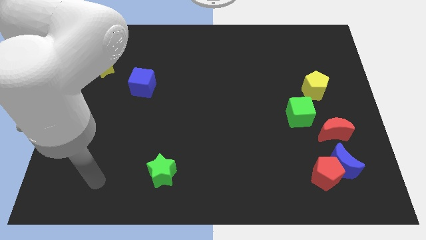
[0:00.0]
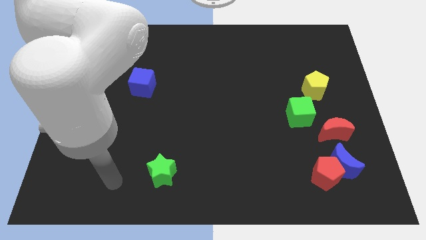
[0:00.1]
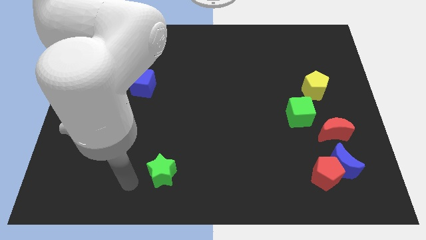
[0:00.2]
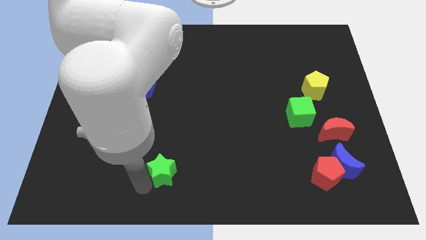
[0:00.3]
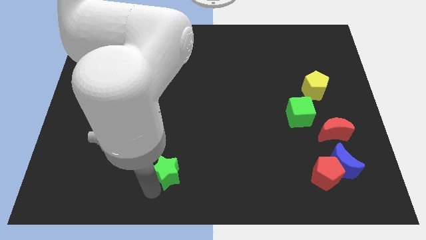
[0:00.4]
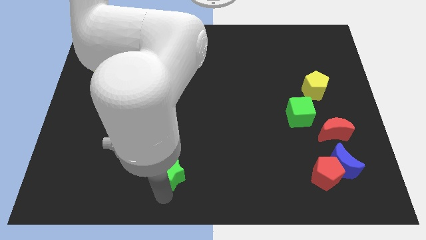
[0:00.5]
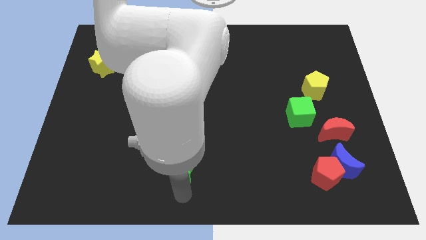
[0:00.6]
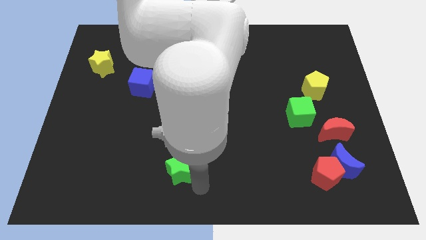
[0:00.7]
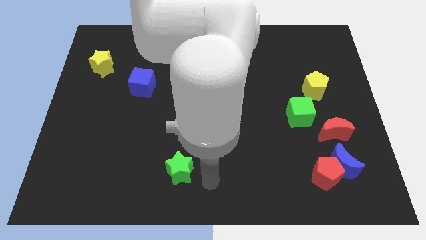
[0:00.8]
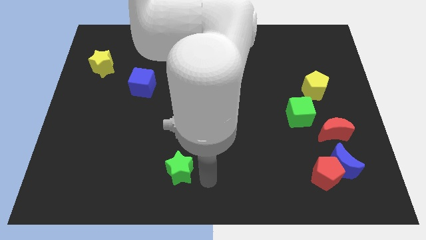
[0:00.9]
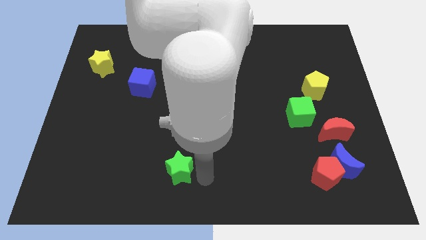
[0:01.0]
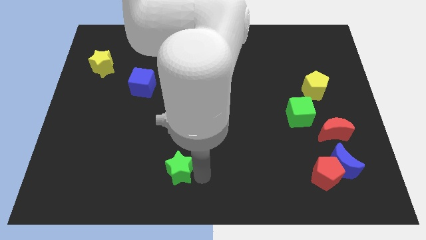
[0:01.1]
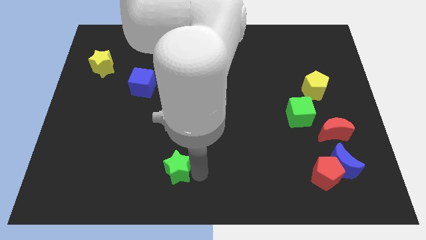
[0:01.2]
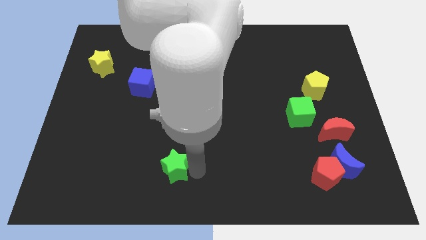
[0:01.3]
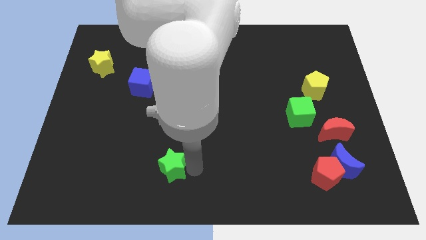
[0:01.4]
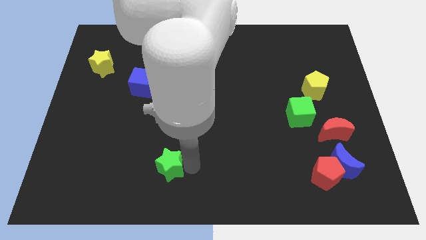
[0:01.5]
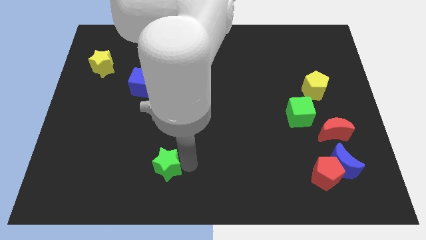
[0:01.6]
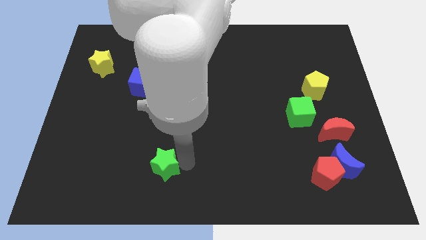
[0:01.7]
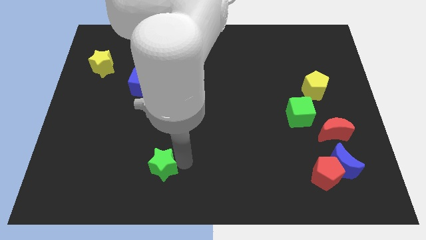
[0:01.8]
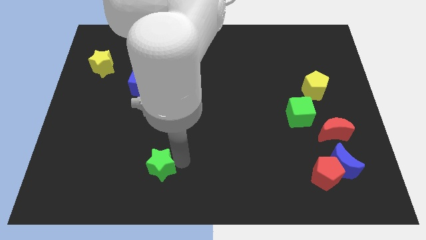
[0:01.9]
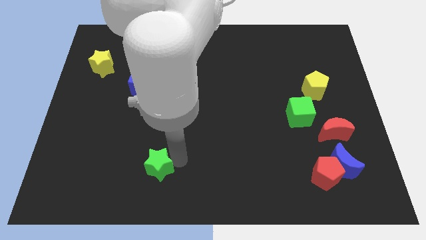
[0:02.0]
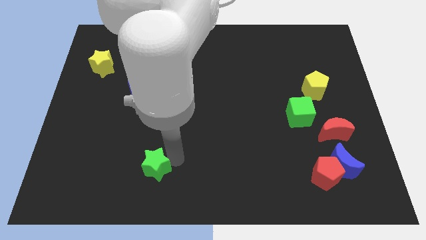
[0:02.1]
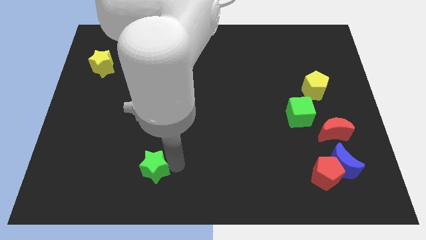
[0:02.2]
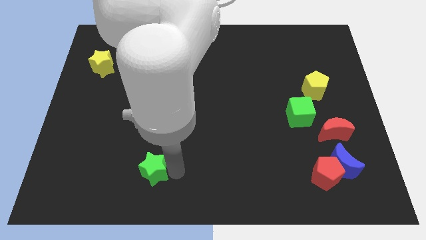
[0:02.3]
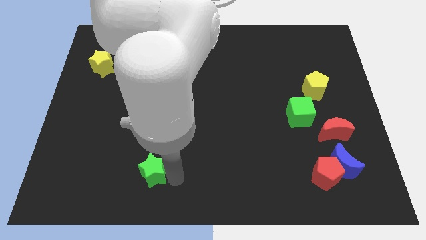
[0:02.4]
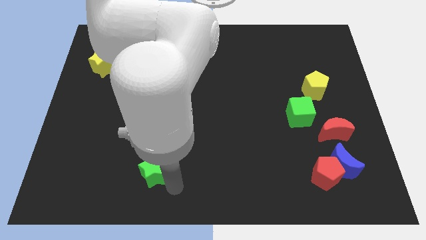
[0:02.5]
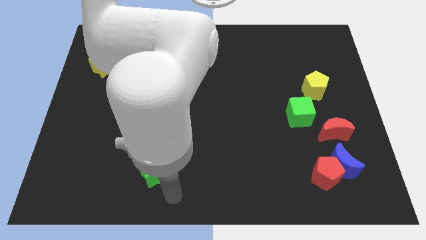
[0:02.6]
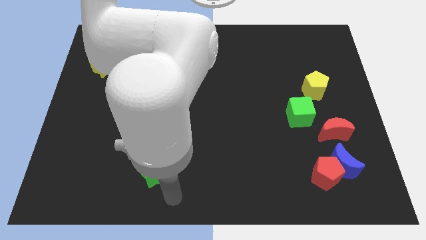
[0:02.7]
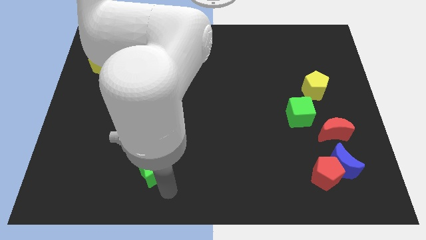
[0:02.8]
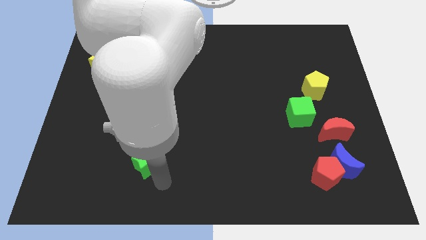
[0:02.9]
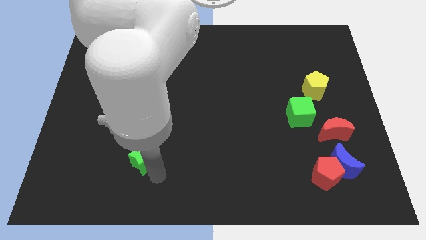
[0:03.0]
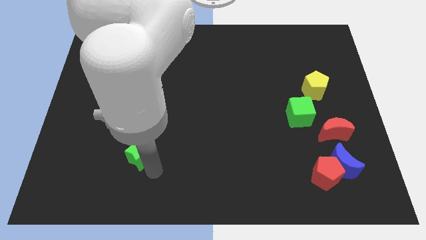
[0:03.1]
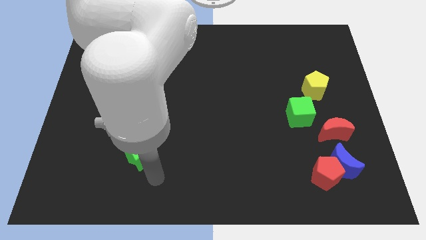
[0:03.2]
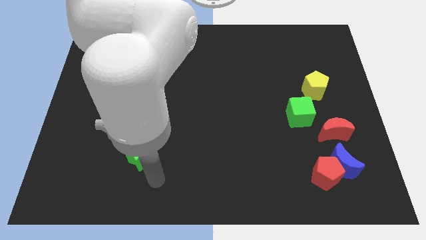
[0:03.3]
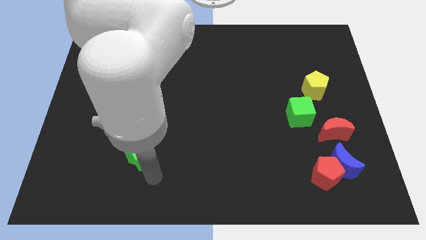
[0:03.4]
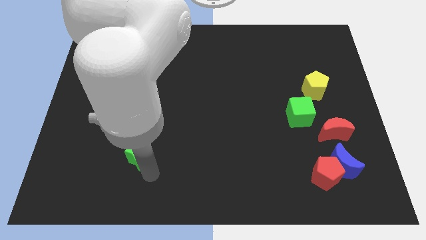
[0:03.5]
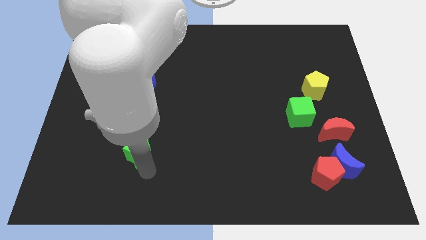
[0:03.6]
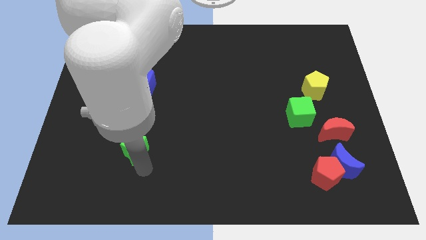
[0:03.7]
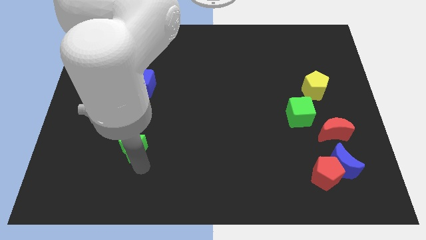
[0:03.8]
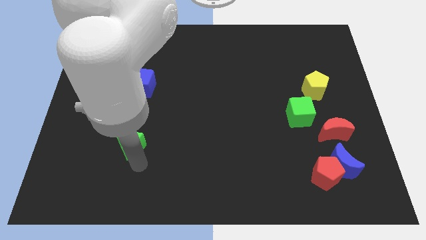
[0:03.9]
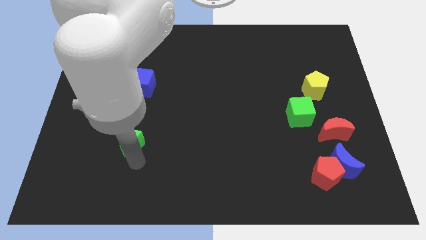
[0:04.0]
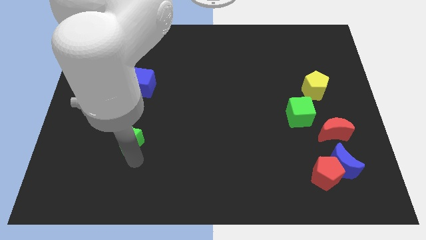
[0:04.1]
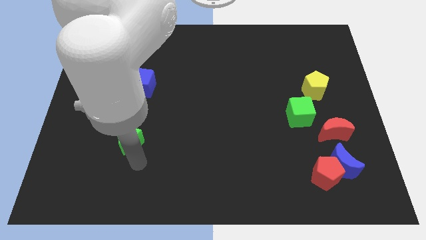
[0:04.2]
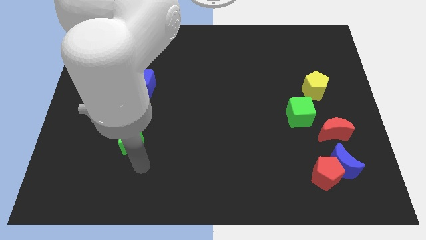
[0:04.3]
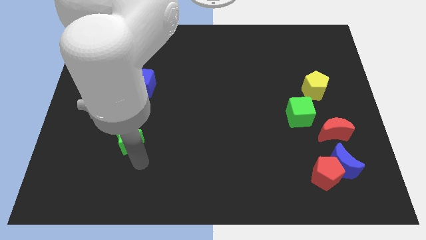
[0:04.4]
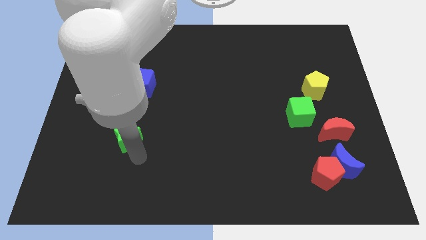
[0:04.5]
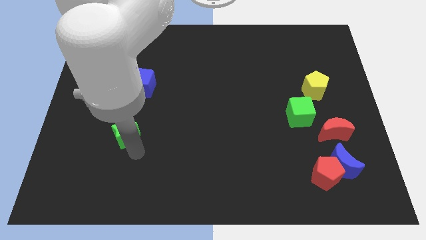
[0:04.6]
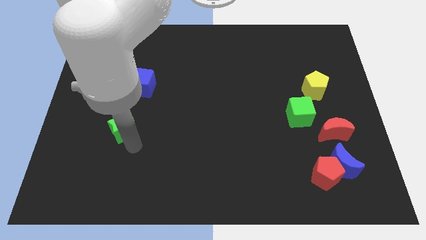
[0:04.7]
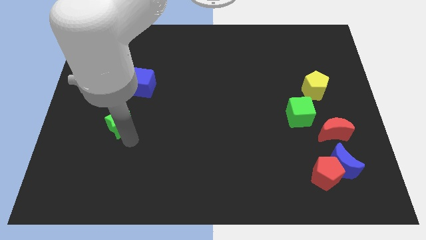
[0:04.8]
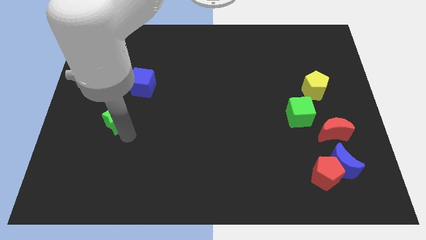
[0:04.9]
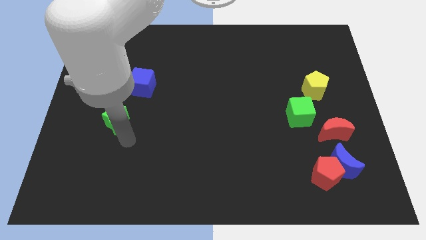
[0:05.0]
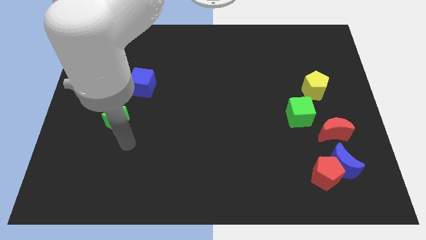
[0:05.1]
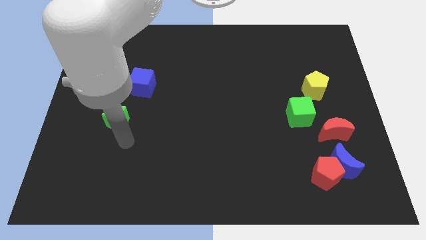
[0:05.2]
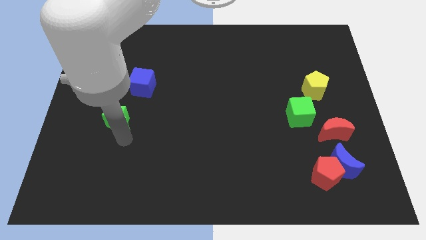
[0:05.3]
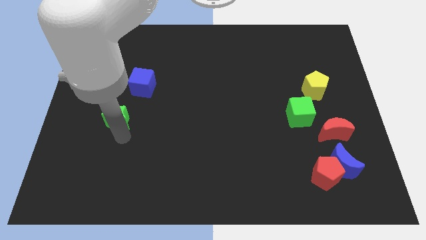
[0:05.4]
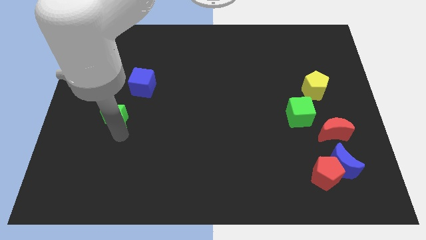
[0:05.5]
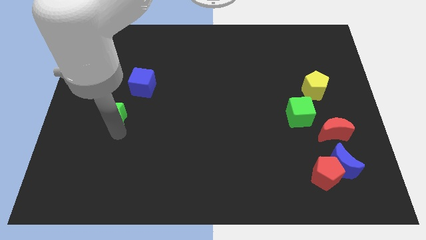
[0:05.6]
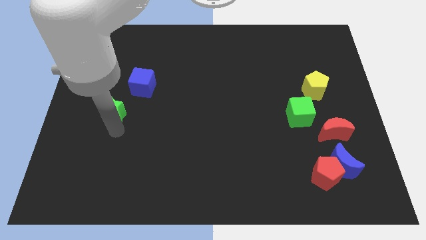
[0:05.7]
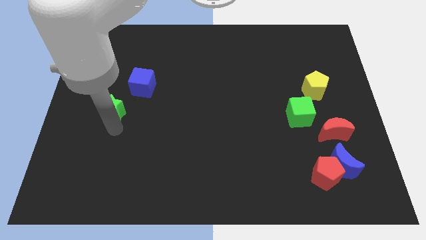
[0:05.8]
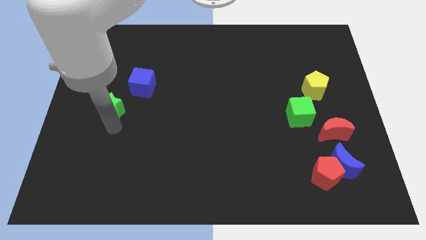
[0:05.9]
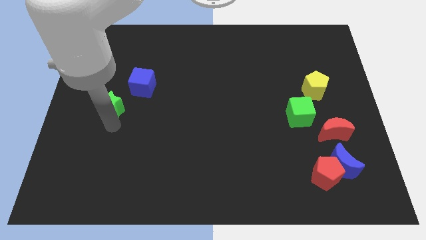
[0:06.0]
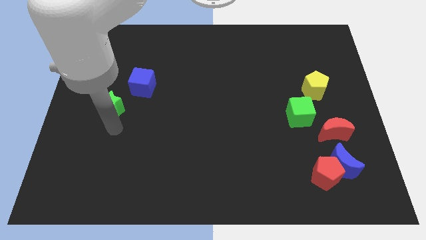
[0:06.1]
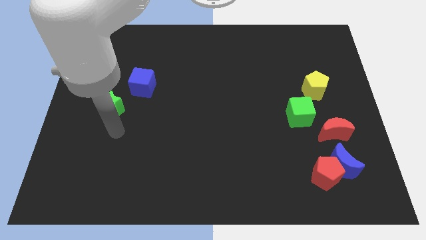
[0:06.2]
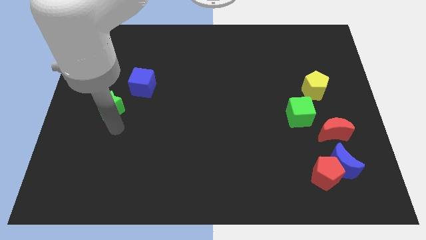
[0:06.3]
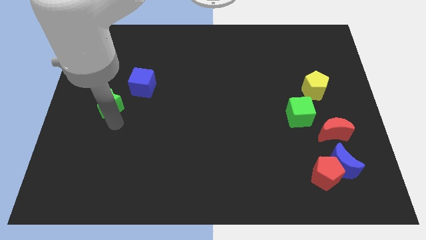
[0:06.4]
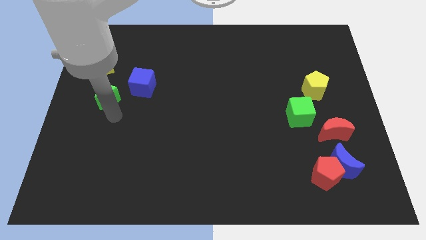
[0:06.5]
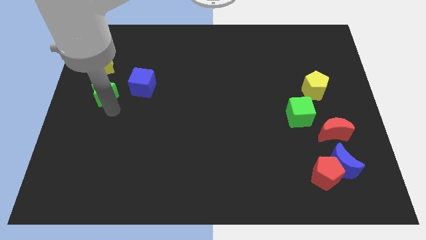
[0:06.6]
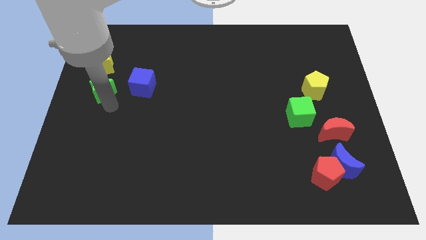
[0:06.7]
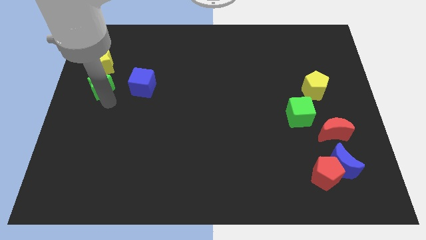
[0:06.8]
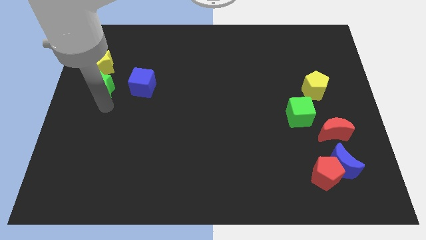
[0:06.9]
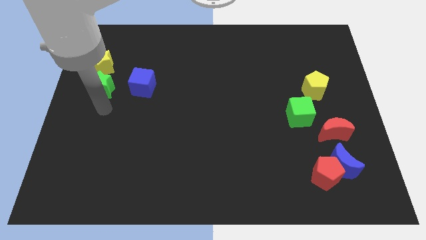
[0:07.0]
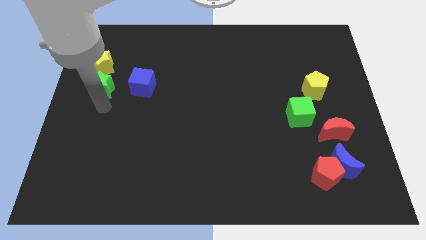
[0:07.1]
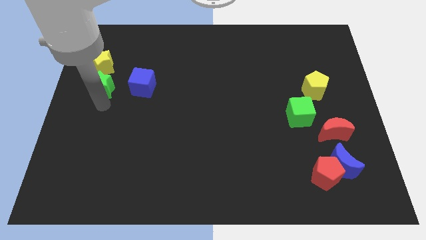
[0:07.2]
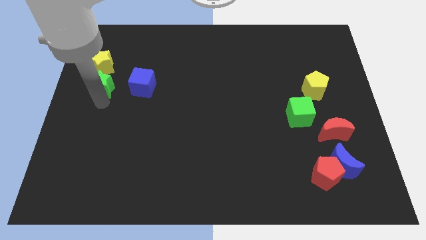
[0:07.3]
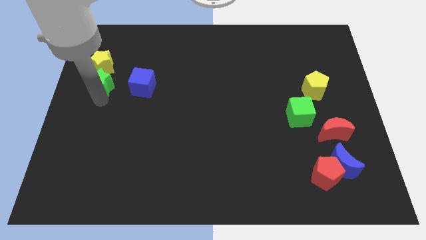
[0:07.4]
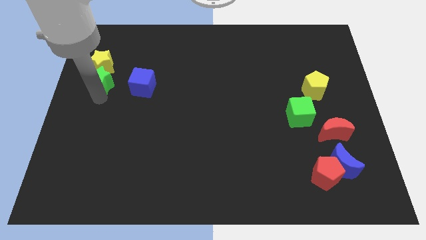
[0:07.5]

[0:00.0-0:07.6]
move the green star towards the yellow star
